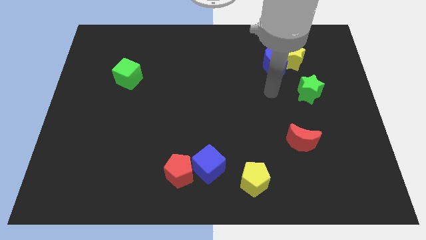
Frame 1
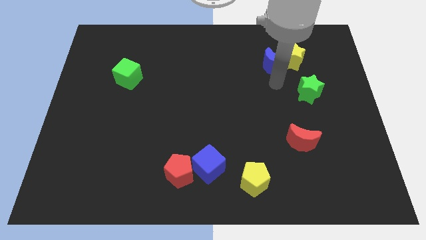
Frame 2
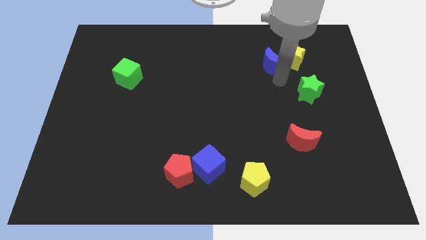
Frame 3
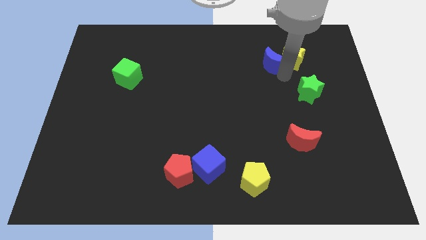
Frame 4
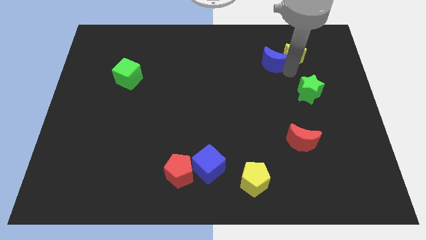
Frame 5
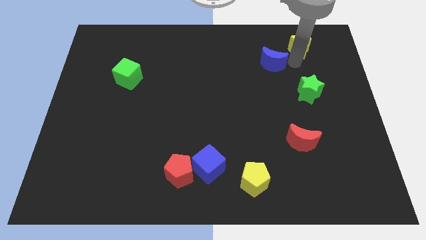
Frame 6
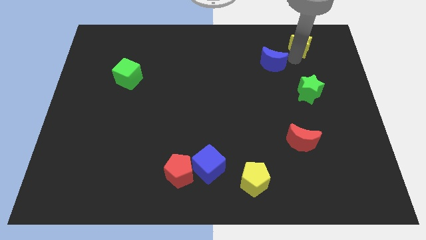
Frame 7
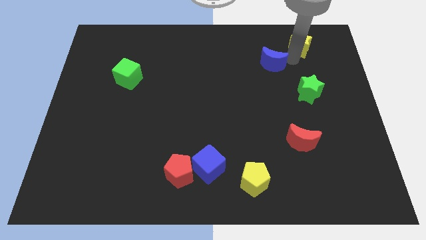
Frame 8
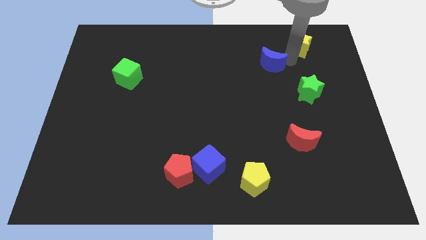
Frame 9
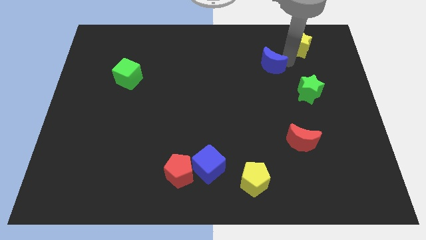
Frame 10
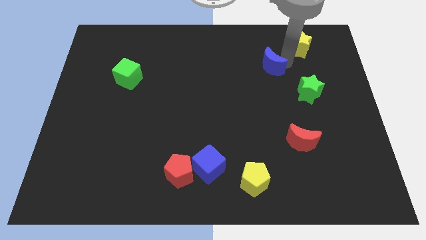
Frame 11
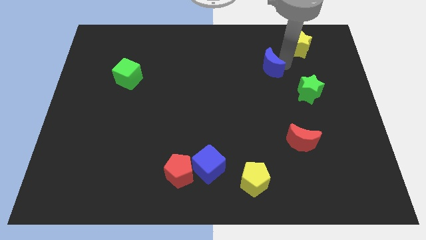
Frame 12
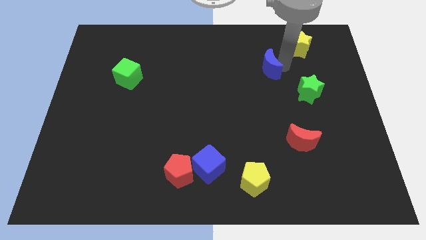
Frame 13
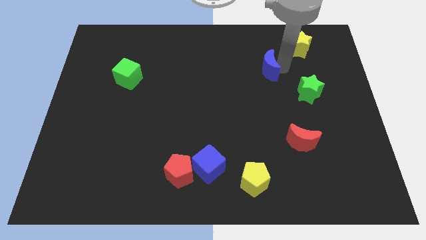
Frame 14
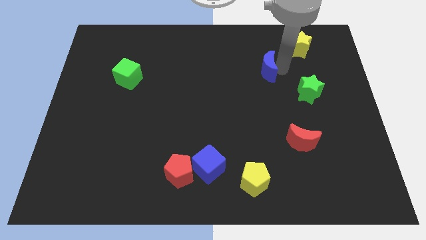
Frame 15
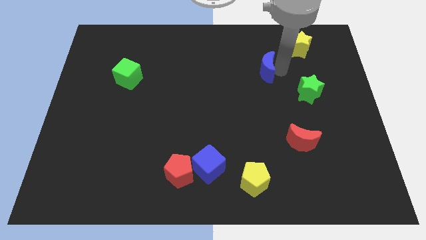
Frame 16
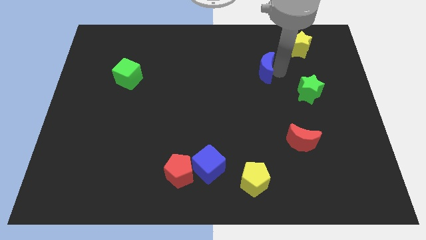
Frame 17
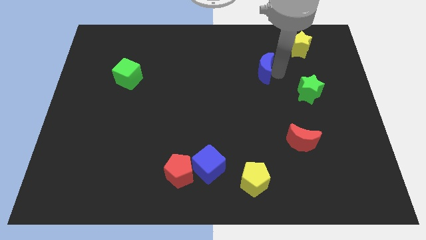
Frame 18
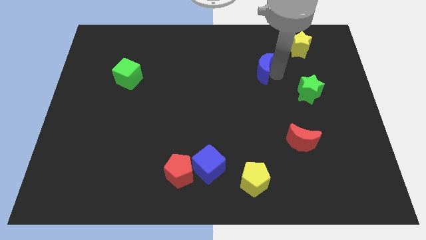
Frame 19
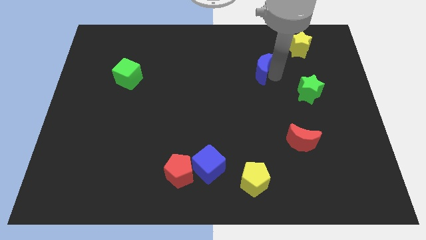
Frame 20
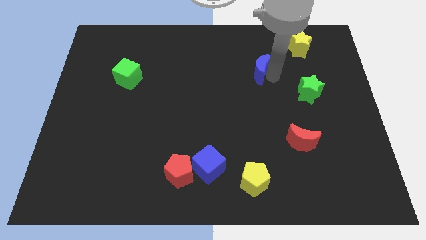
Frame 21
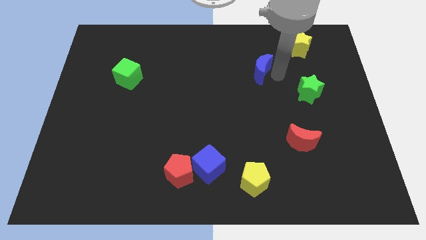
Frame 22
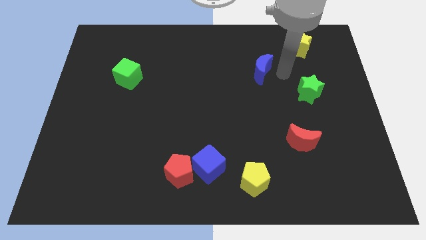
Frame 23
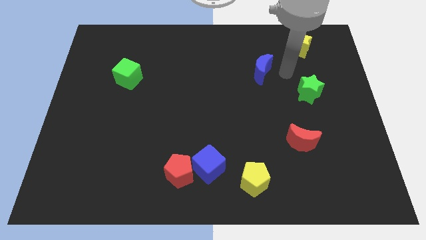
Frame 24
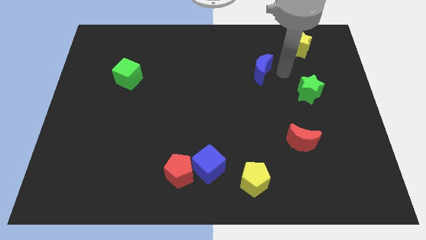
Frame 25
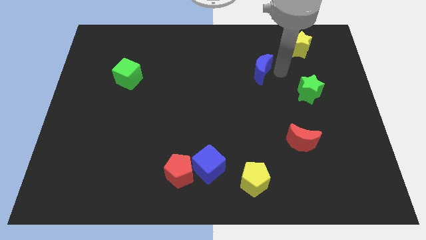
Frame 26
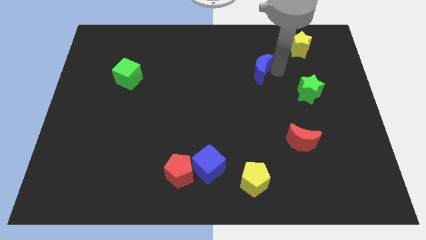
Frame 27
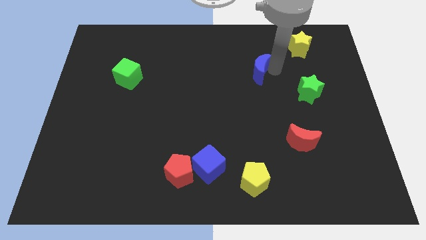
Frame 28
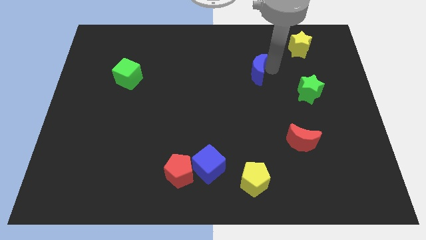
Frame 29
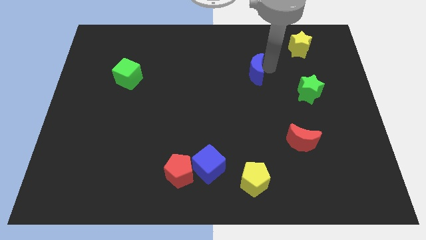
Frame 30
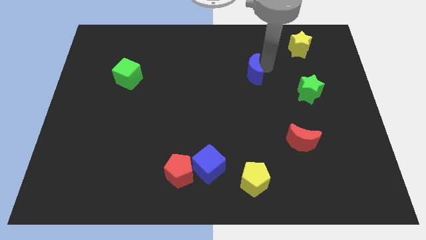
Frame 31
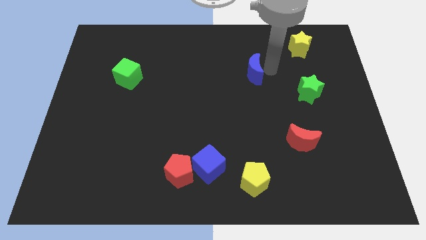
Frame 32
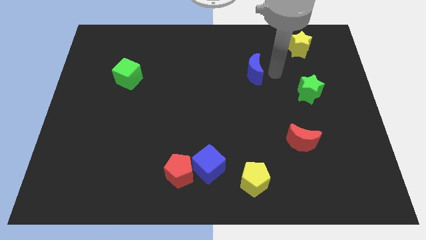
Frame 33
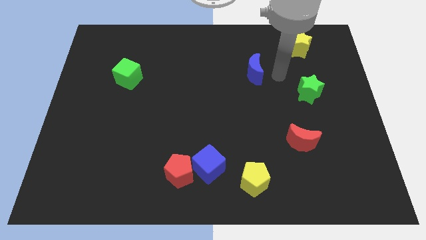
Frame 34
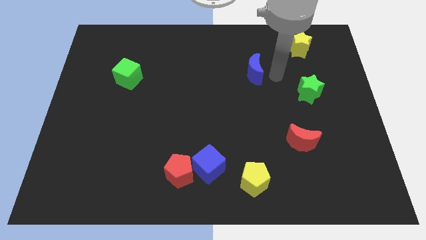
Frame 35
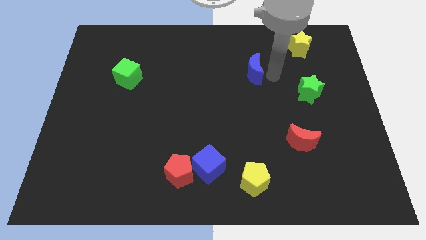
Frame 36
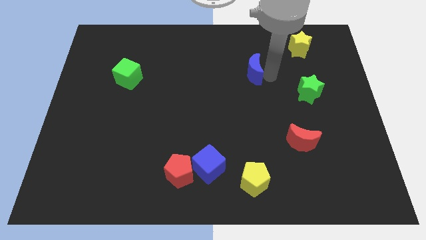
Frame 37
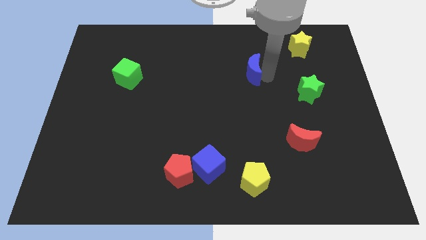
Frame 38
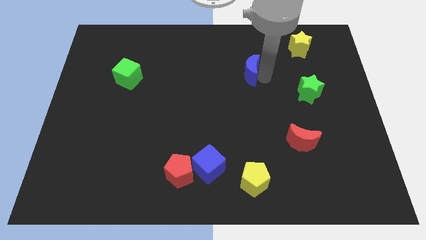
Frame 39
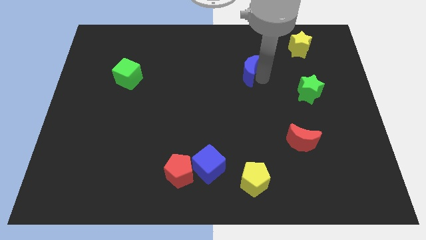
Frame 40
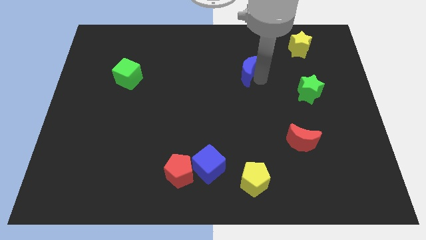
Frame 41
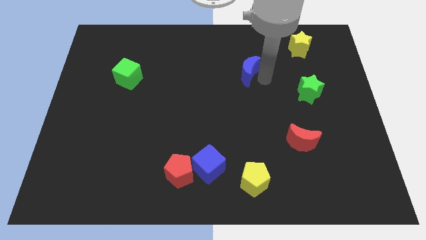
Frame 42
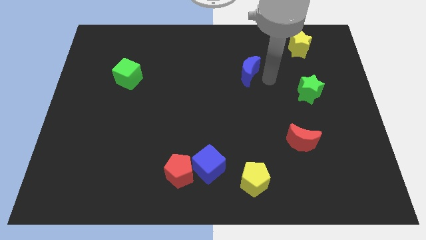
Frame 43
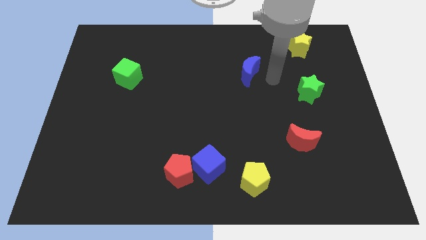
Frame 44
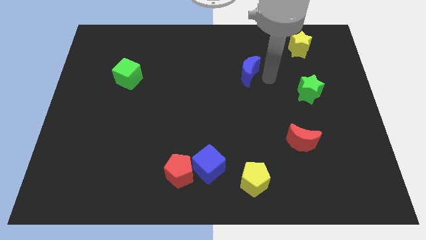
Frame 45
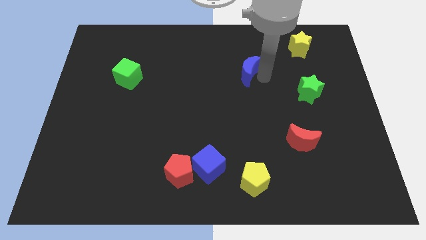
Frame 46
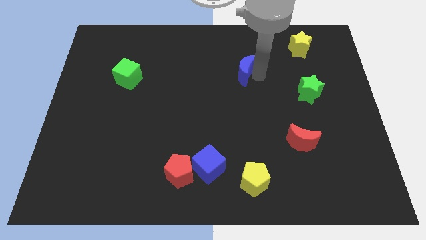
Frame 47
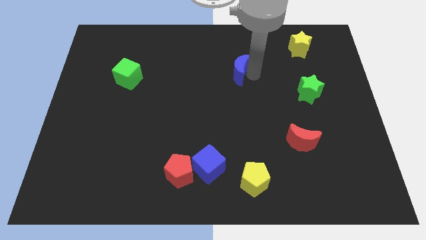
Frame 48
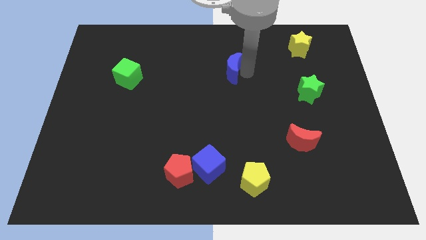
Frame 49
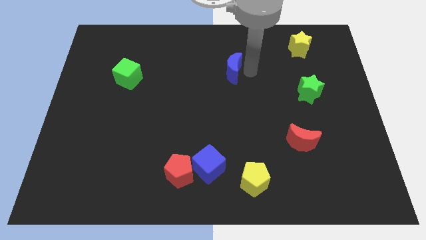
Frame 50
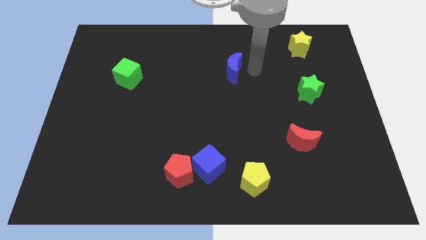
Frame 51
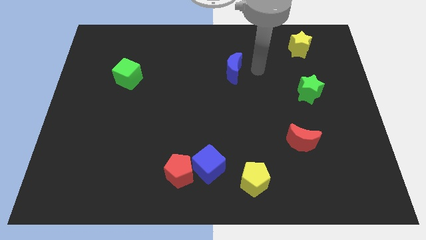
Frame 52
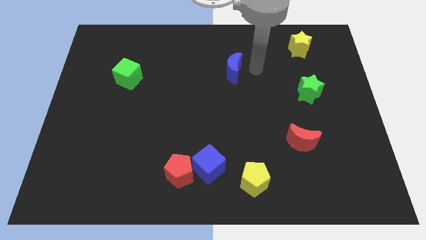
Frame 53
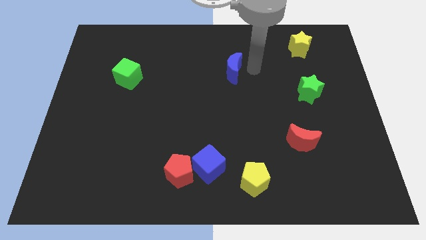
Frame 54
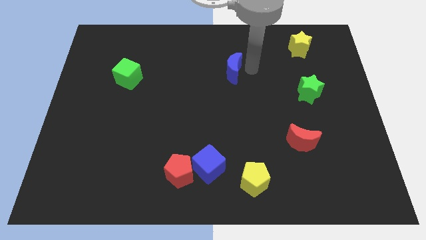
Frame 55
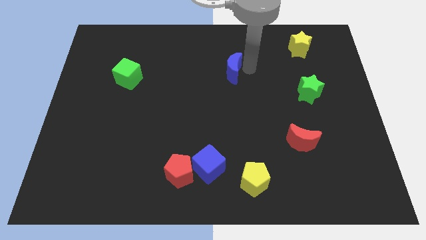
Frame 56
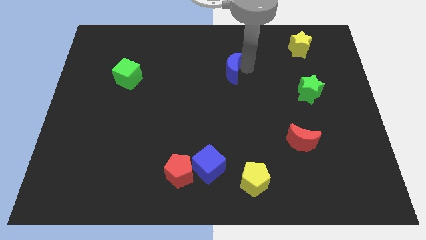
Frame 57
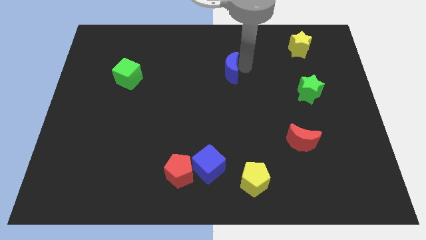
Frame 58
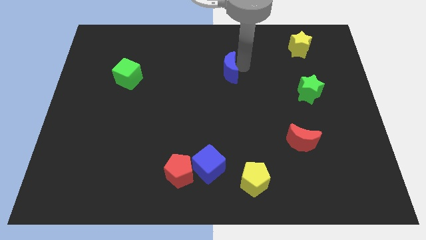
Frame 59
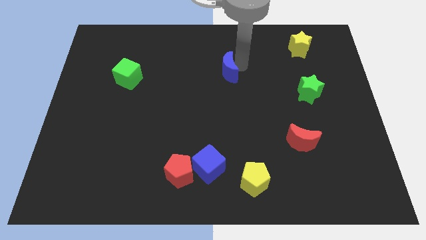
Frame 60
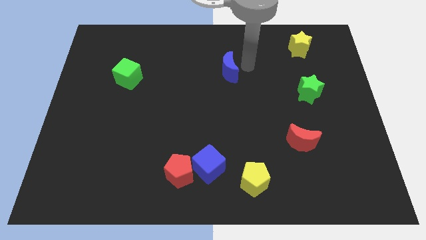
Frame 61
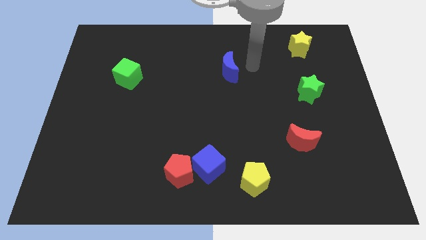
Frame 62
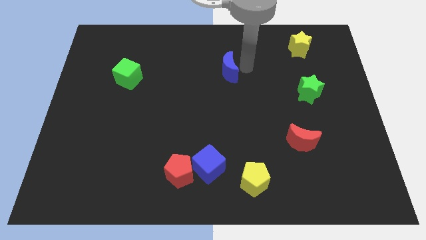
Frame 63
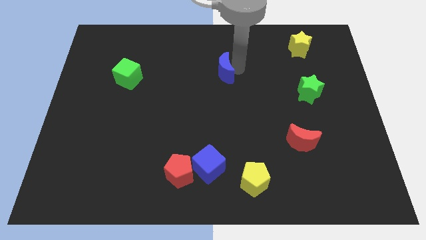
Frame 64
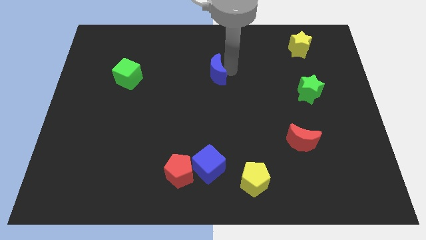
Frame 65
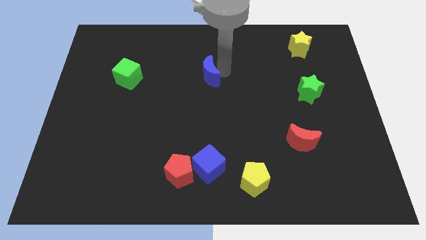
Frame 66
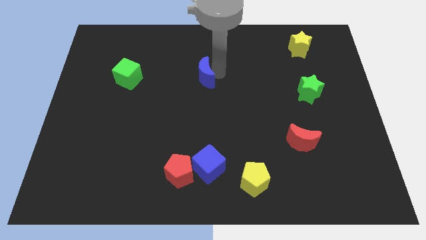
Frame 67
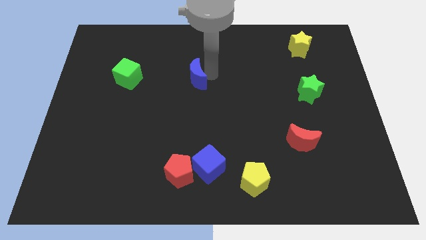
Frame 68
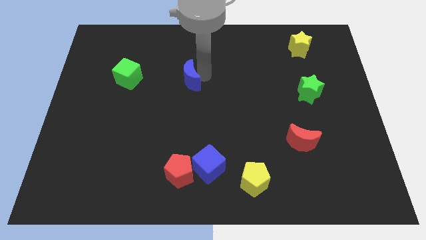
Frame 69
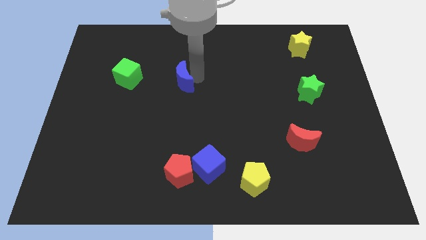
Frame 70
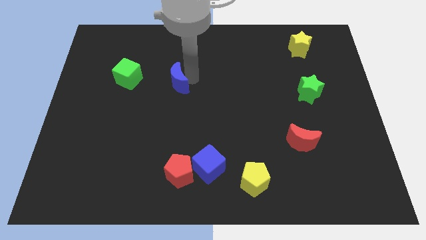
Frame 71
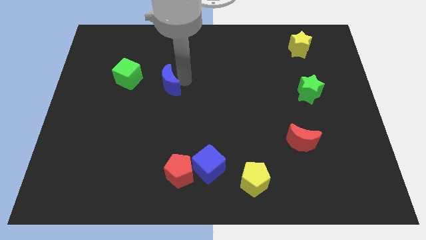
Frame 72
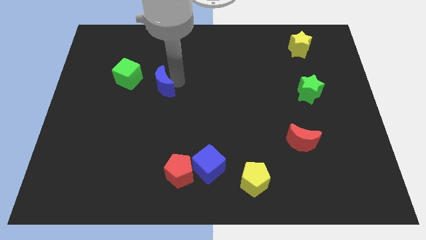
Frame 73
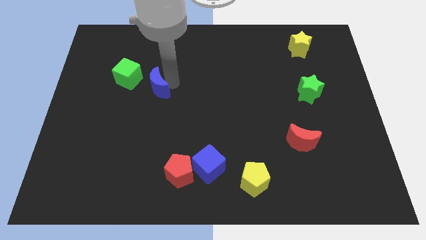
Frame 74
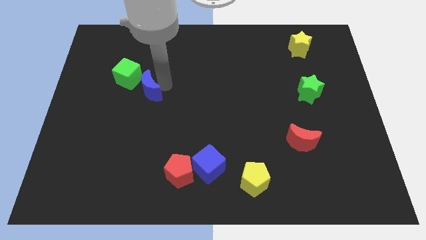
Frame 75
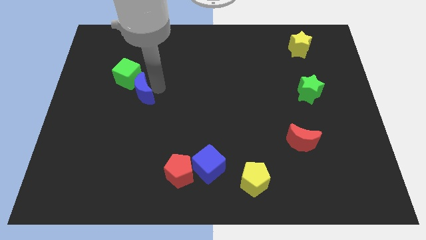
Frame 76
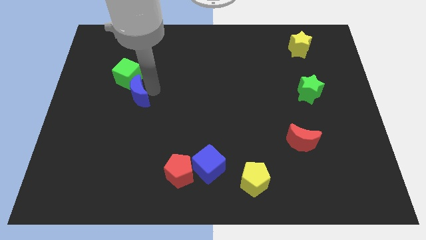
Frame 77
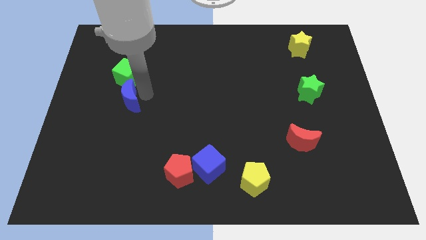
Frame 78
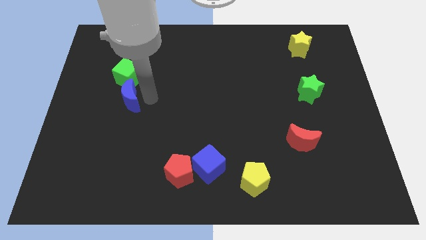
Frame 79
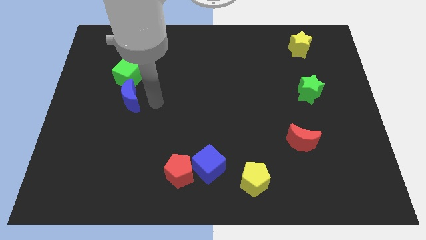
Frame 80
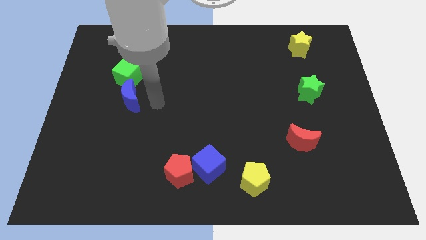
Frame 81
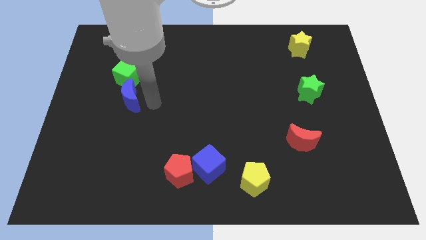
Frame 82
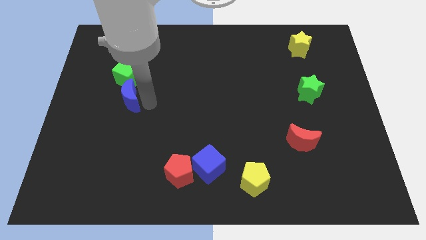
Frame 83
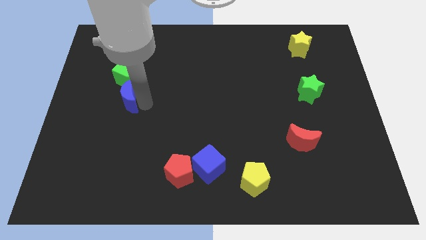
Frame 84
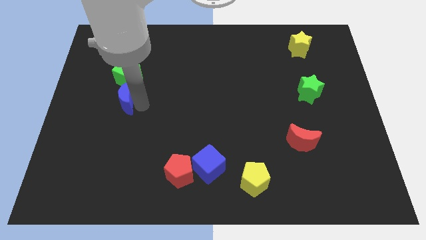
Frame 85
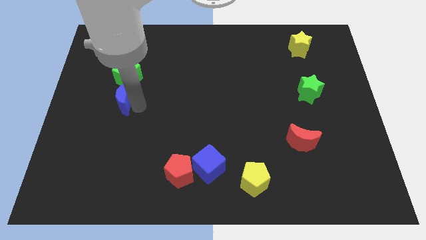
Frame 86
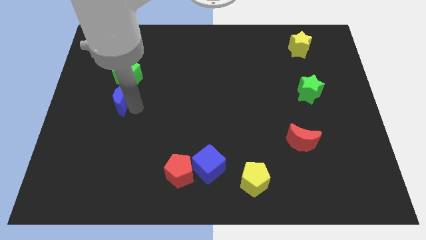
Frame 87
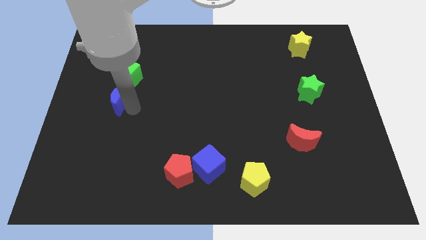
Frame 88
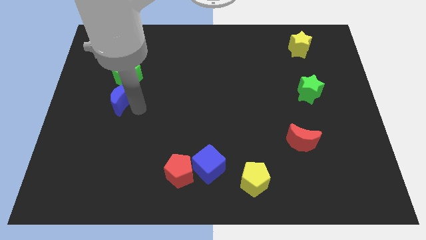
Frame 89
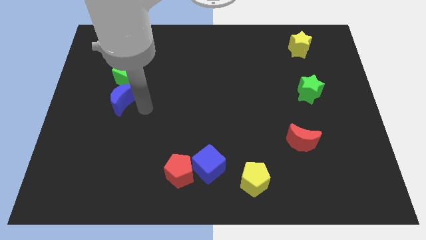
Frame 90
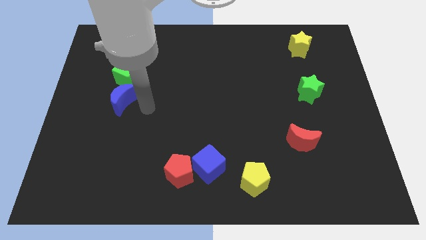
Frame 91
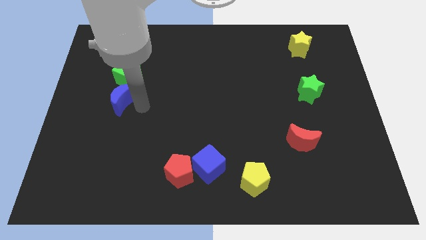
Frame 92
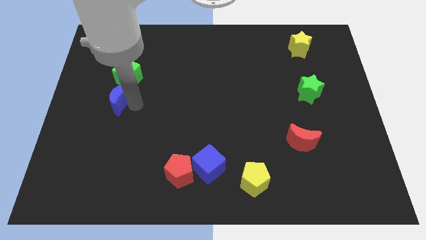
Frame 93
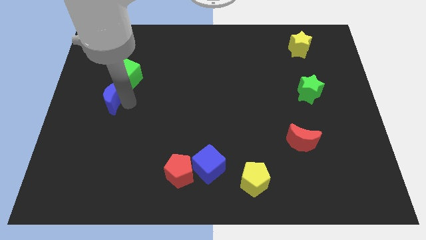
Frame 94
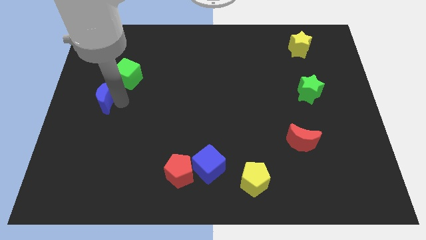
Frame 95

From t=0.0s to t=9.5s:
put the blue moon to the left side of the board
